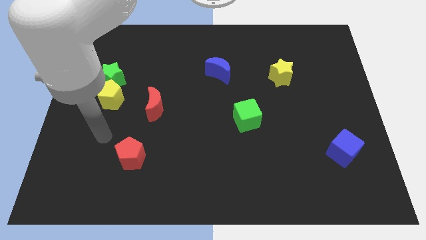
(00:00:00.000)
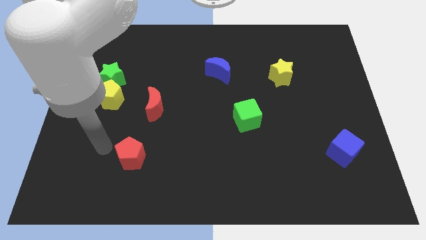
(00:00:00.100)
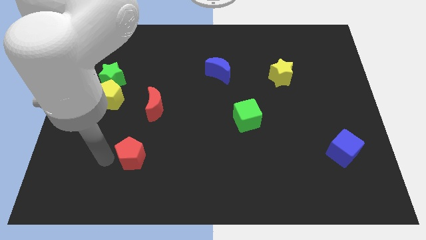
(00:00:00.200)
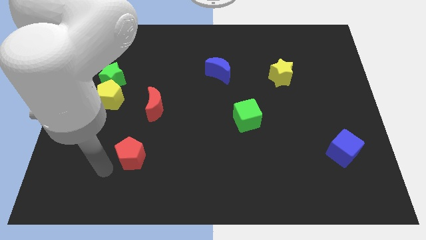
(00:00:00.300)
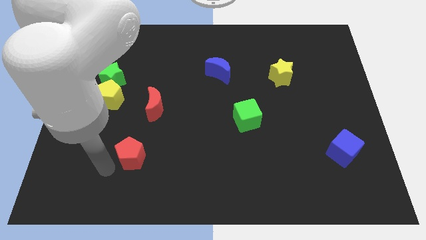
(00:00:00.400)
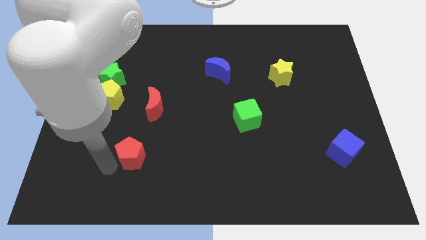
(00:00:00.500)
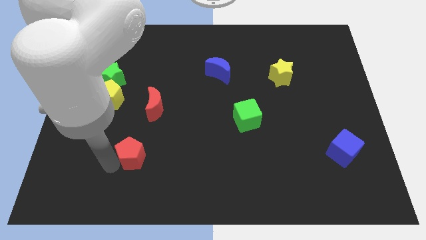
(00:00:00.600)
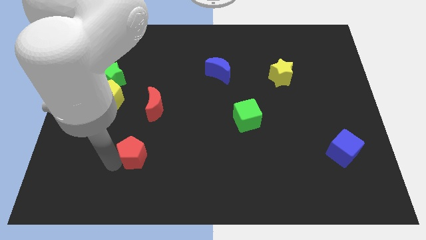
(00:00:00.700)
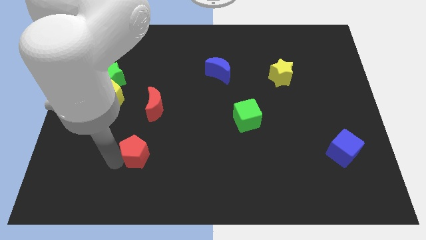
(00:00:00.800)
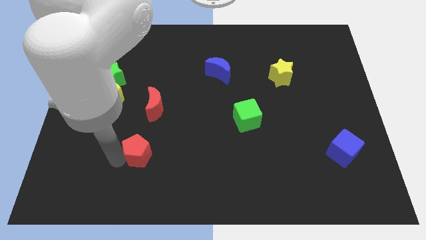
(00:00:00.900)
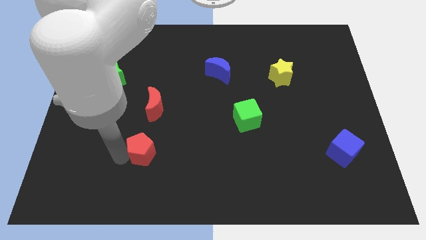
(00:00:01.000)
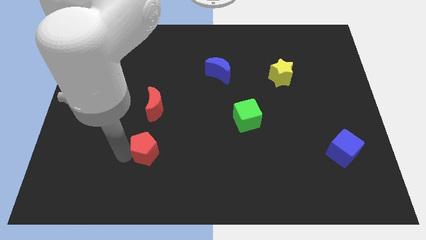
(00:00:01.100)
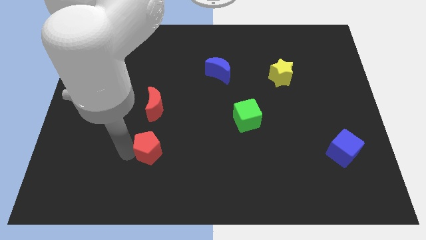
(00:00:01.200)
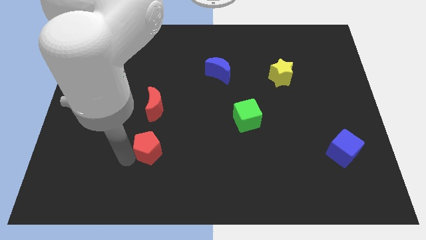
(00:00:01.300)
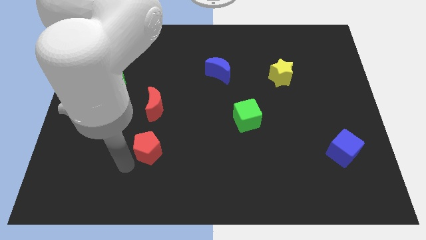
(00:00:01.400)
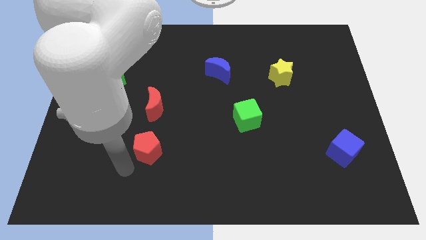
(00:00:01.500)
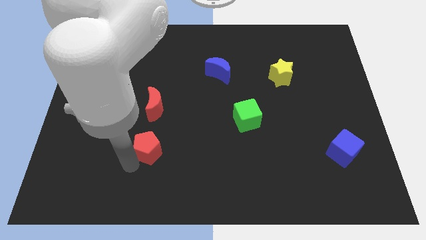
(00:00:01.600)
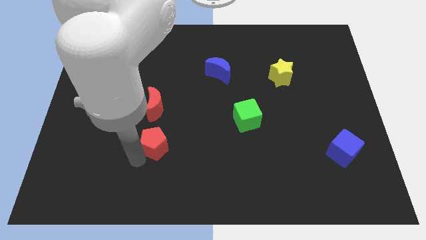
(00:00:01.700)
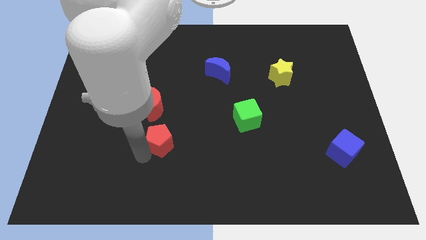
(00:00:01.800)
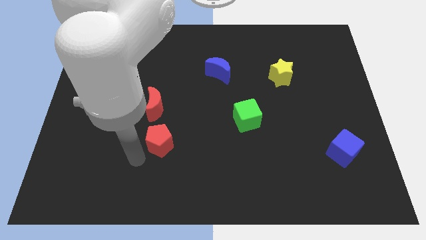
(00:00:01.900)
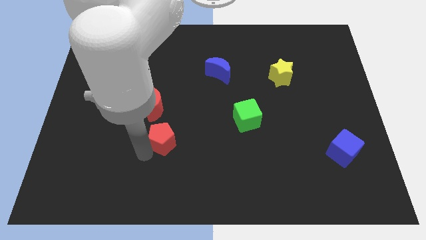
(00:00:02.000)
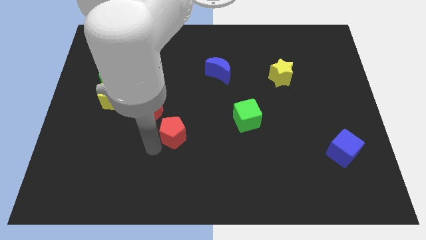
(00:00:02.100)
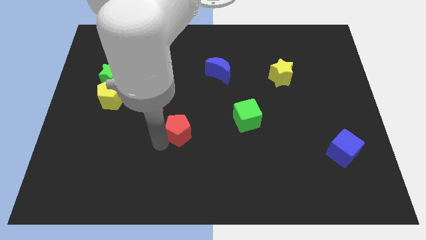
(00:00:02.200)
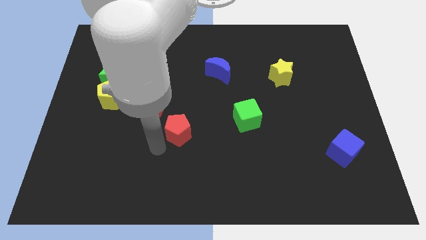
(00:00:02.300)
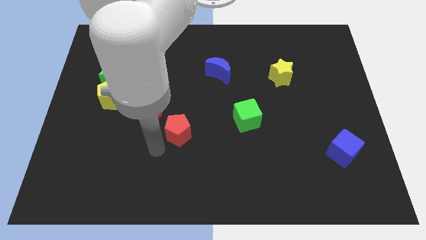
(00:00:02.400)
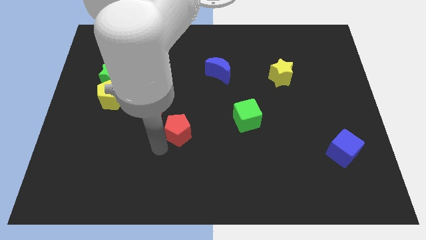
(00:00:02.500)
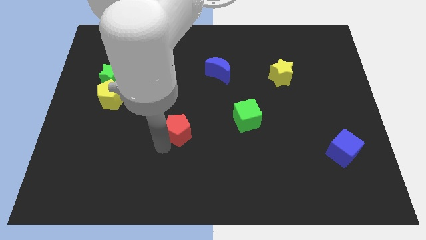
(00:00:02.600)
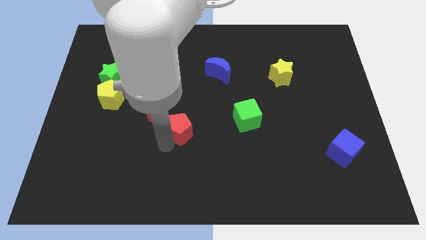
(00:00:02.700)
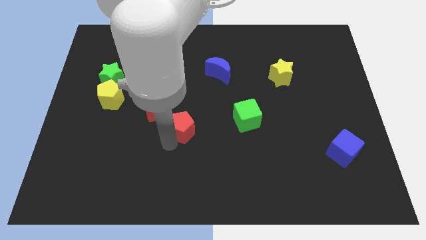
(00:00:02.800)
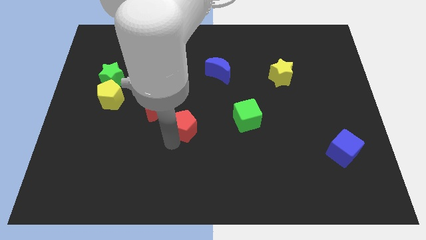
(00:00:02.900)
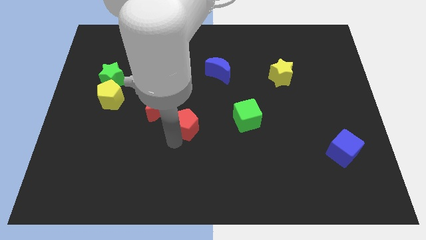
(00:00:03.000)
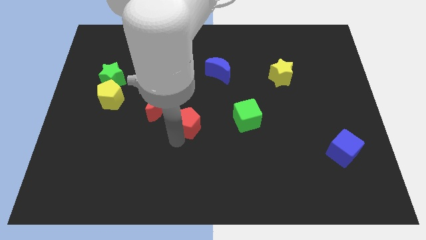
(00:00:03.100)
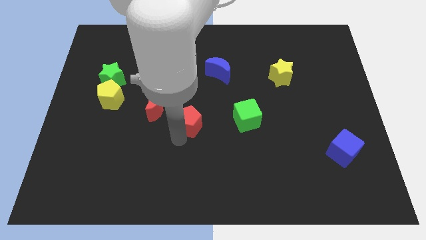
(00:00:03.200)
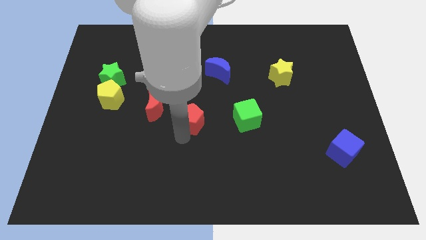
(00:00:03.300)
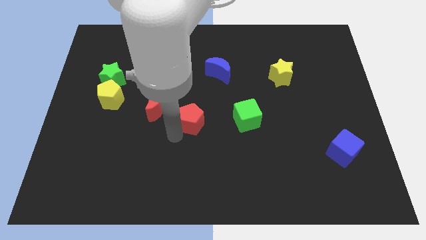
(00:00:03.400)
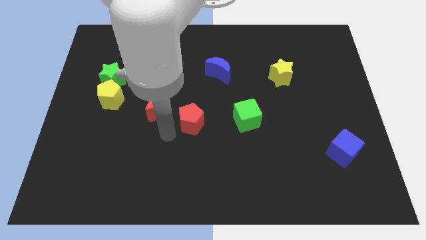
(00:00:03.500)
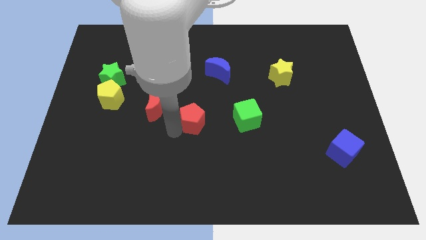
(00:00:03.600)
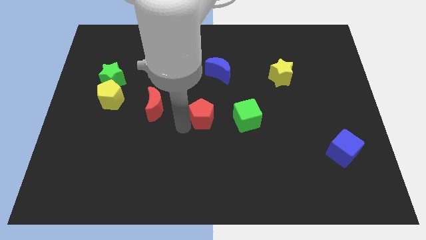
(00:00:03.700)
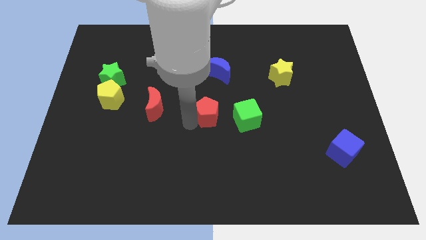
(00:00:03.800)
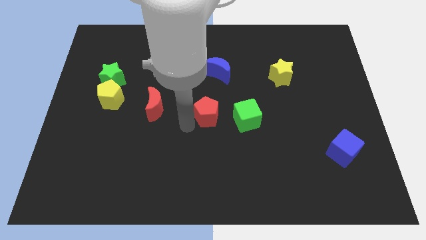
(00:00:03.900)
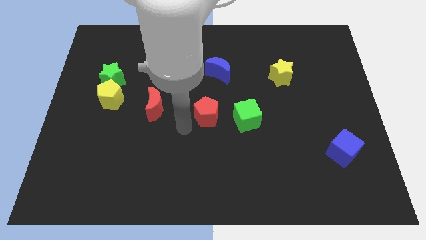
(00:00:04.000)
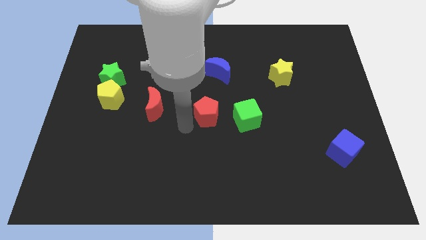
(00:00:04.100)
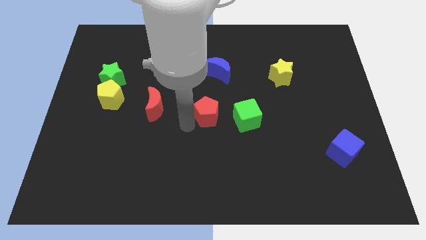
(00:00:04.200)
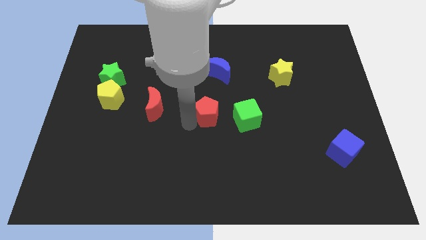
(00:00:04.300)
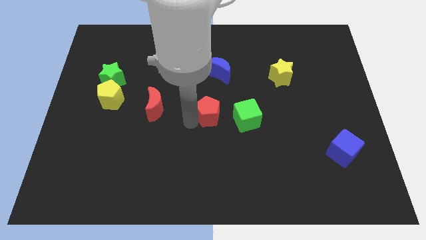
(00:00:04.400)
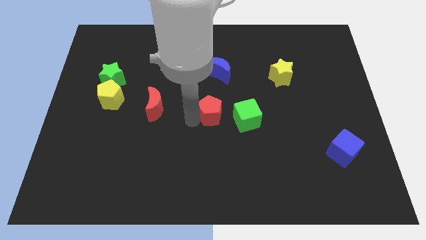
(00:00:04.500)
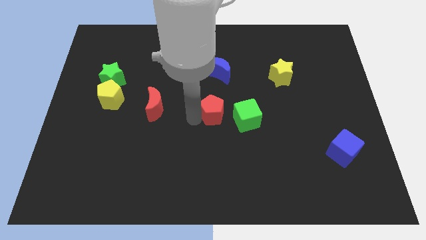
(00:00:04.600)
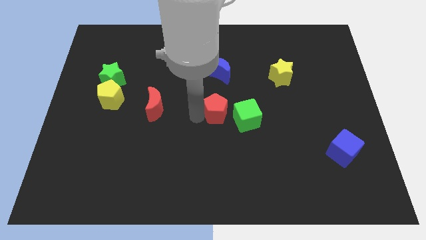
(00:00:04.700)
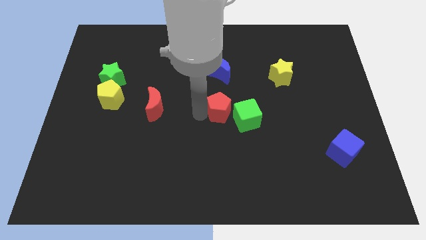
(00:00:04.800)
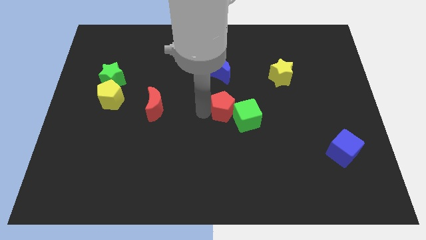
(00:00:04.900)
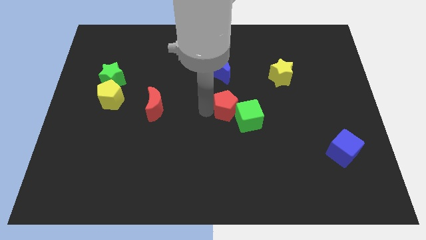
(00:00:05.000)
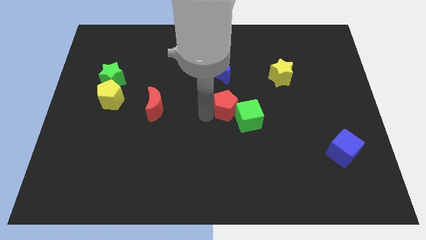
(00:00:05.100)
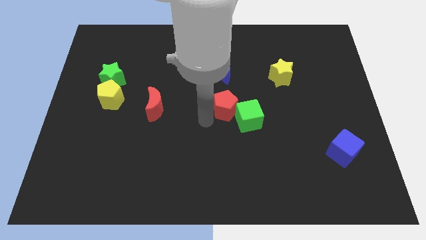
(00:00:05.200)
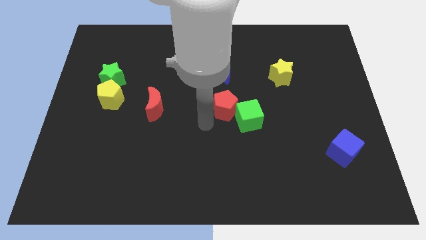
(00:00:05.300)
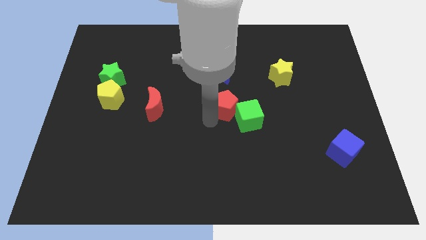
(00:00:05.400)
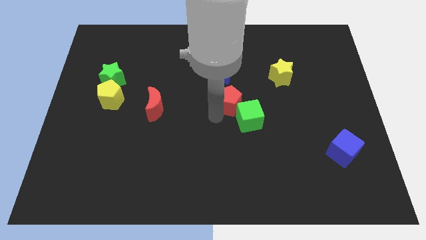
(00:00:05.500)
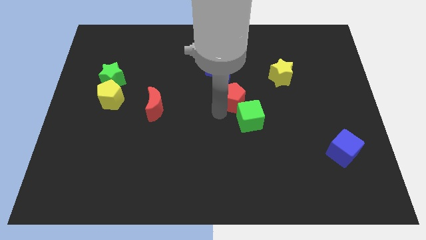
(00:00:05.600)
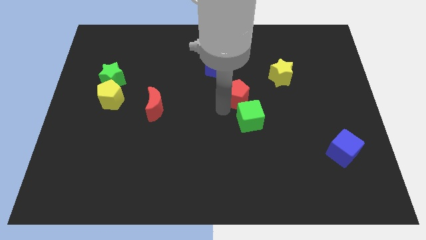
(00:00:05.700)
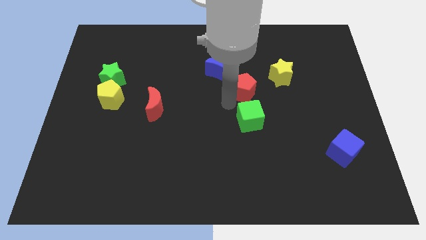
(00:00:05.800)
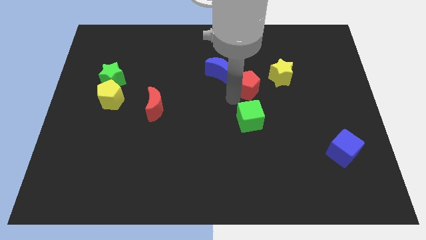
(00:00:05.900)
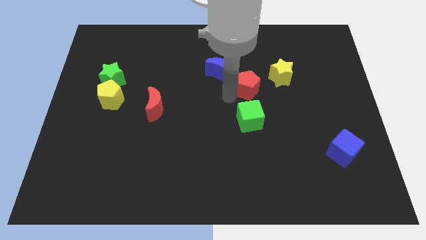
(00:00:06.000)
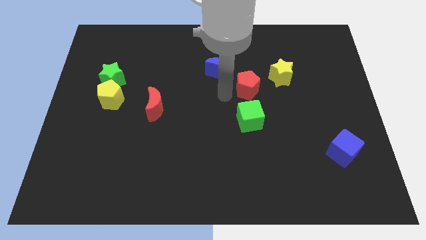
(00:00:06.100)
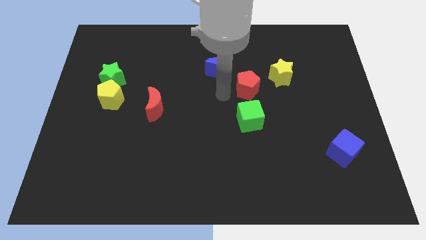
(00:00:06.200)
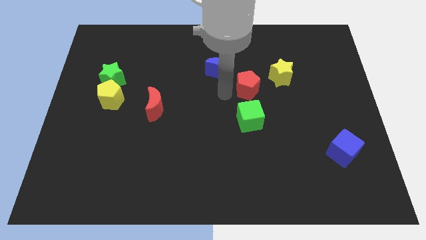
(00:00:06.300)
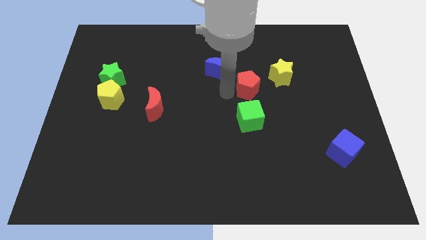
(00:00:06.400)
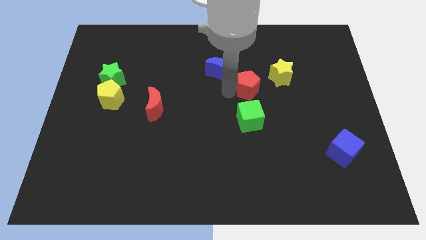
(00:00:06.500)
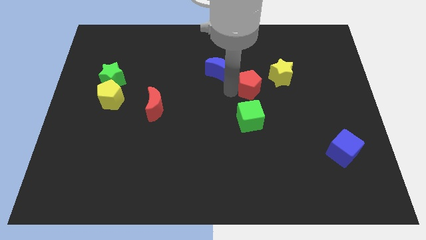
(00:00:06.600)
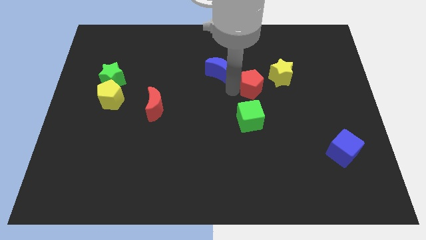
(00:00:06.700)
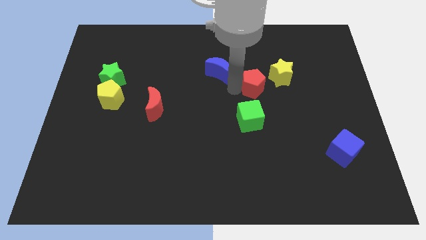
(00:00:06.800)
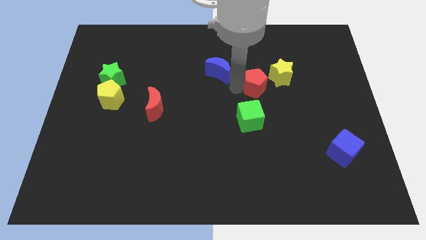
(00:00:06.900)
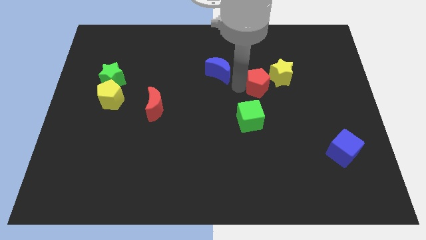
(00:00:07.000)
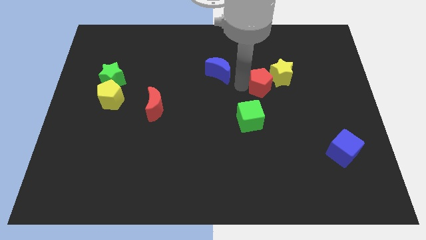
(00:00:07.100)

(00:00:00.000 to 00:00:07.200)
move the red pentagon next to the yellow star
